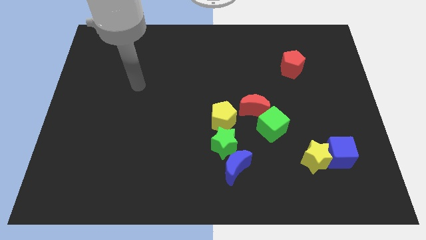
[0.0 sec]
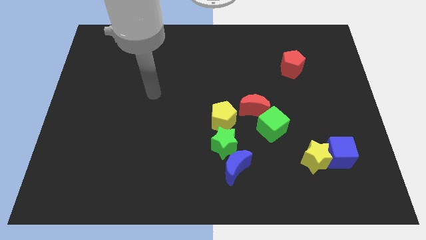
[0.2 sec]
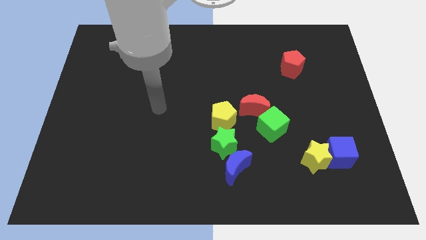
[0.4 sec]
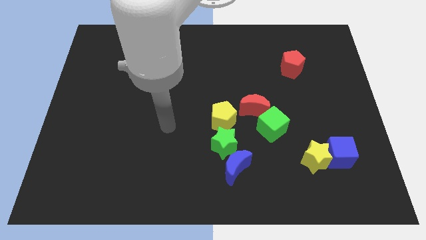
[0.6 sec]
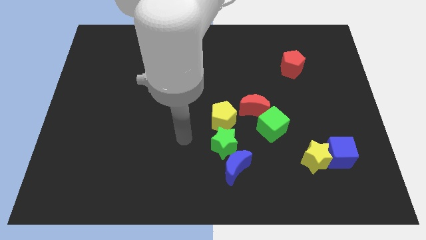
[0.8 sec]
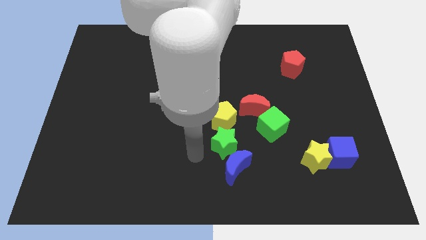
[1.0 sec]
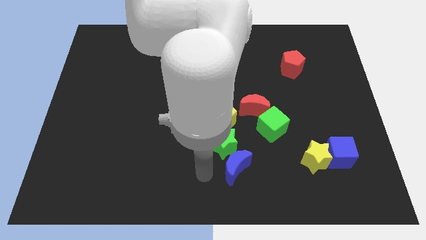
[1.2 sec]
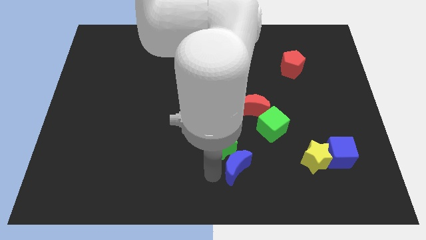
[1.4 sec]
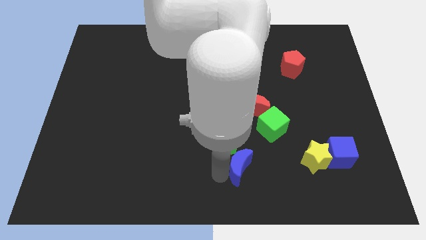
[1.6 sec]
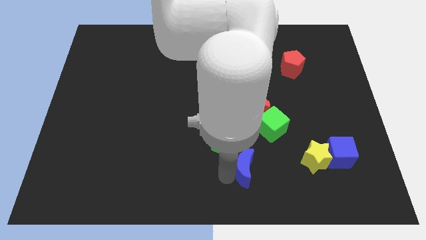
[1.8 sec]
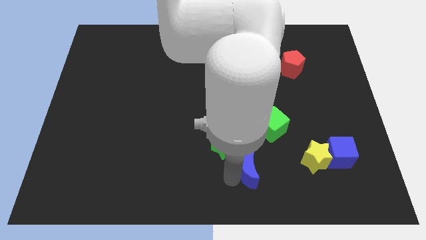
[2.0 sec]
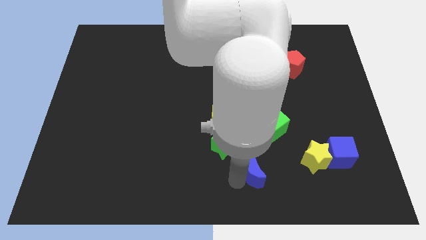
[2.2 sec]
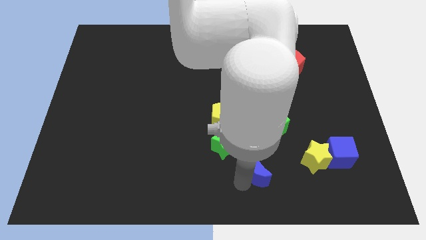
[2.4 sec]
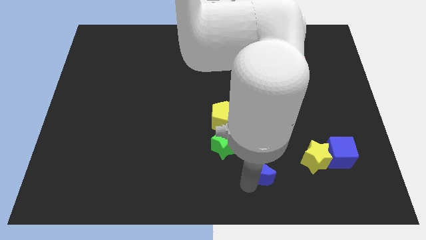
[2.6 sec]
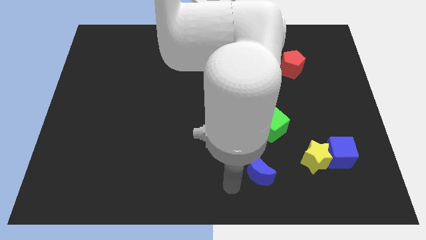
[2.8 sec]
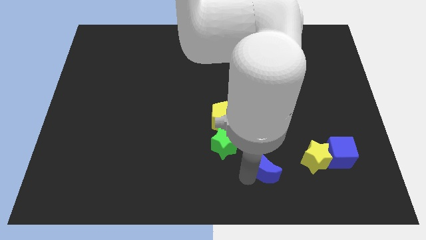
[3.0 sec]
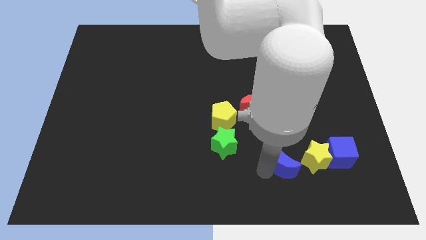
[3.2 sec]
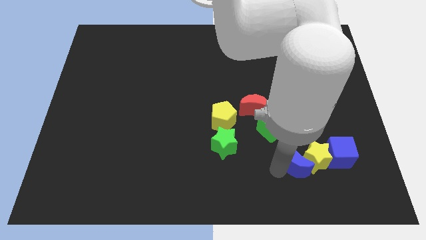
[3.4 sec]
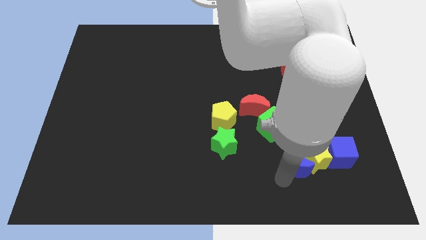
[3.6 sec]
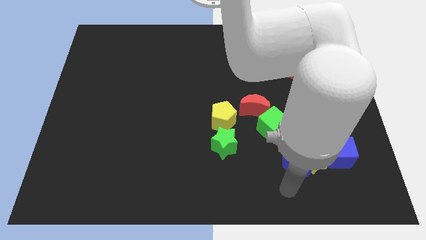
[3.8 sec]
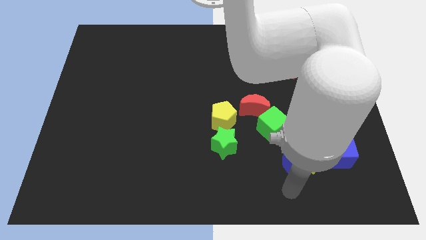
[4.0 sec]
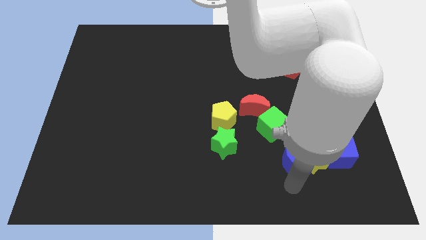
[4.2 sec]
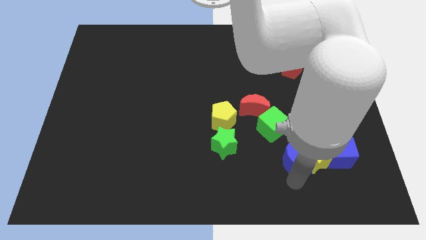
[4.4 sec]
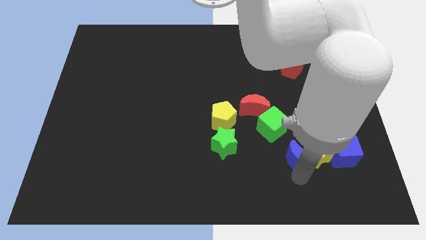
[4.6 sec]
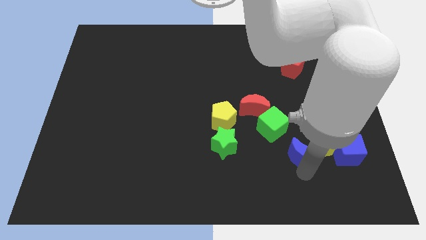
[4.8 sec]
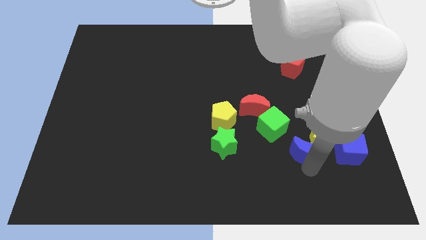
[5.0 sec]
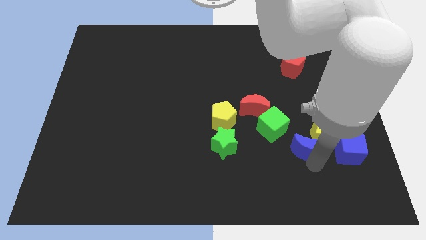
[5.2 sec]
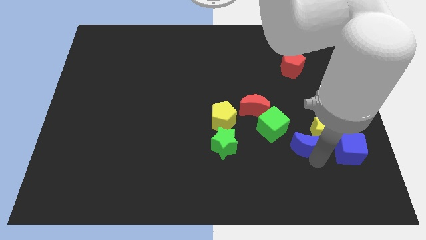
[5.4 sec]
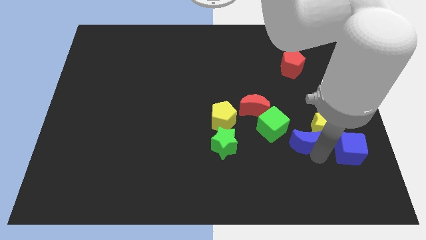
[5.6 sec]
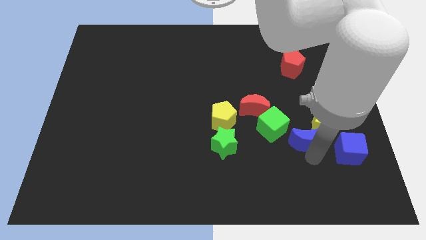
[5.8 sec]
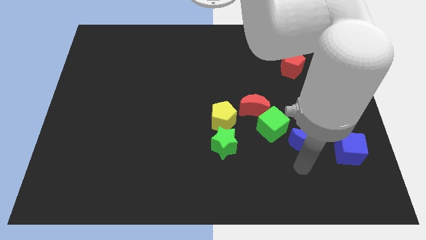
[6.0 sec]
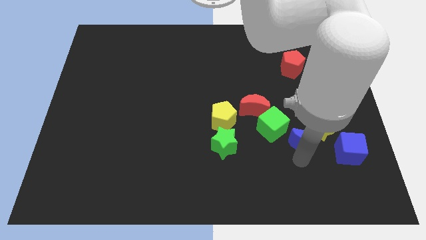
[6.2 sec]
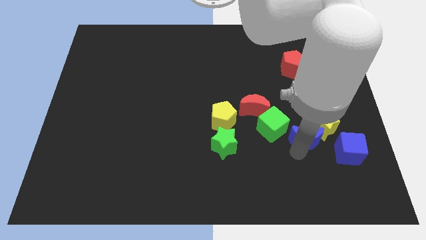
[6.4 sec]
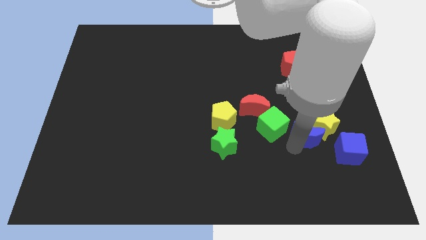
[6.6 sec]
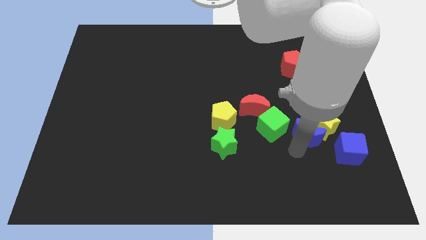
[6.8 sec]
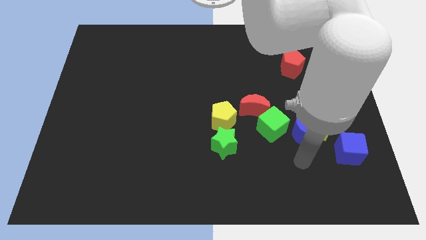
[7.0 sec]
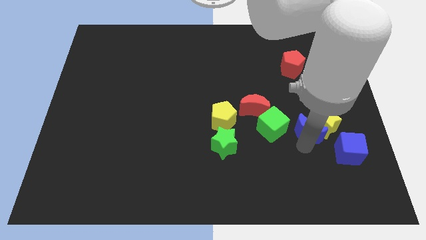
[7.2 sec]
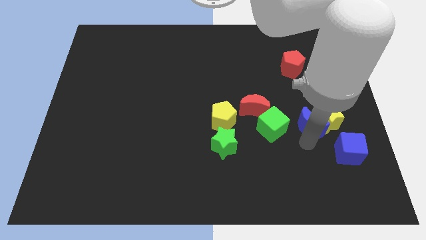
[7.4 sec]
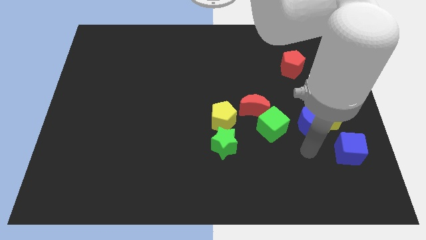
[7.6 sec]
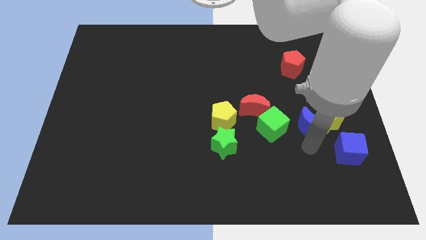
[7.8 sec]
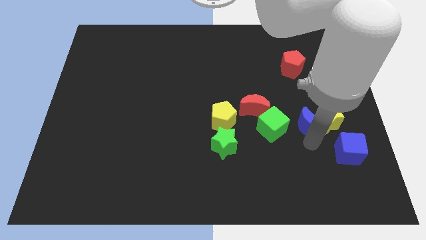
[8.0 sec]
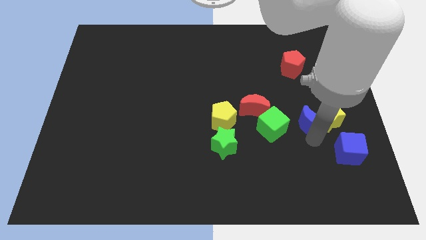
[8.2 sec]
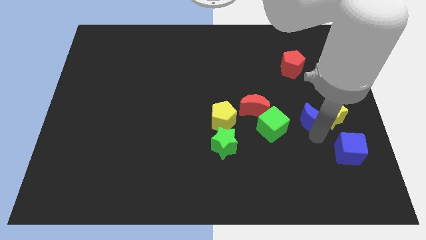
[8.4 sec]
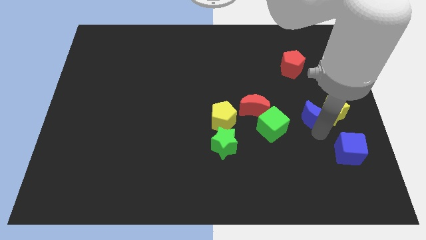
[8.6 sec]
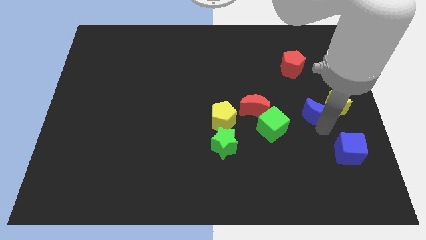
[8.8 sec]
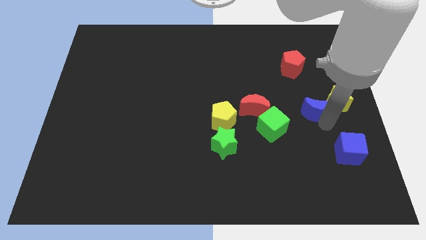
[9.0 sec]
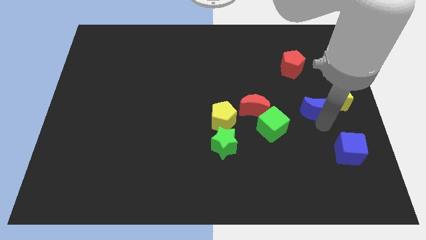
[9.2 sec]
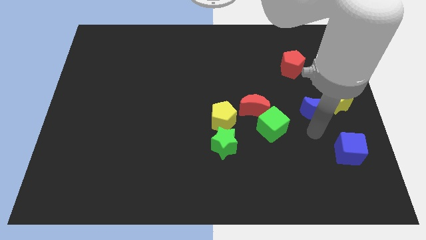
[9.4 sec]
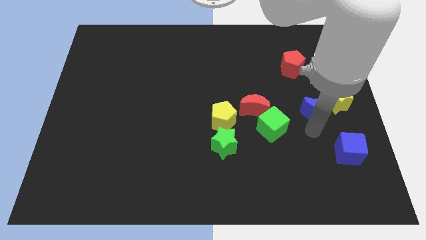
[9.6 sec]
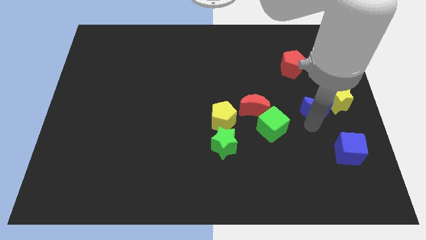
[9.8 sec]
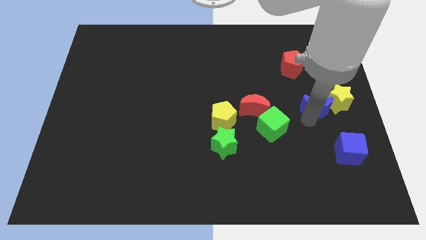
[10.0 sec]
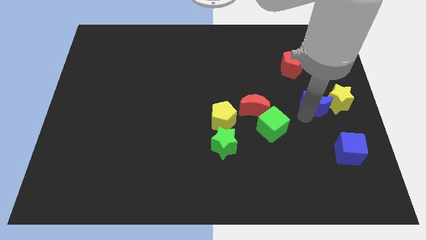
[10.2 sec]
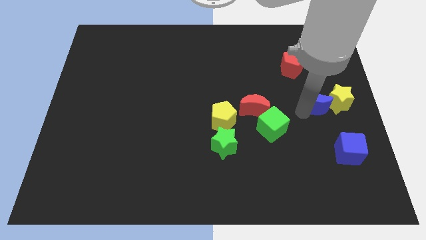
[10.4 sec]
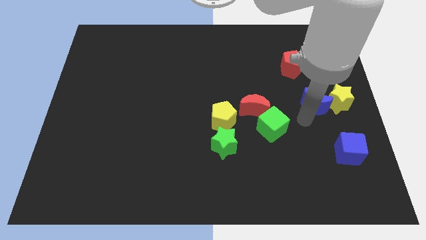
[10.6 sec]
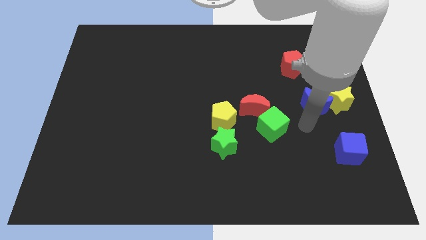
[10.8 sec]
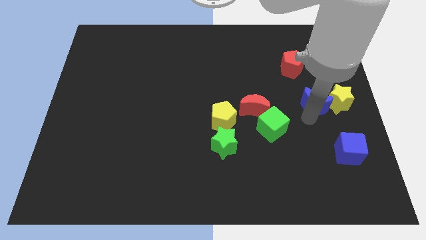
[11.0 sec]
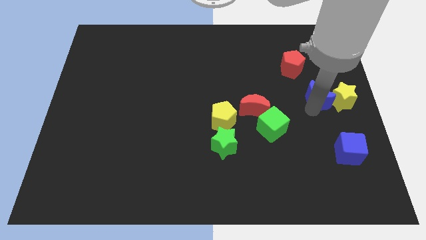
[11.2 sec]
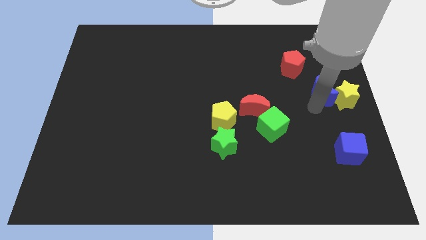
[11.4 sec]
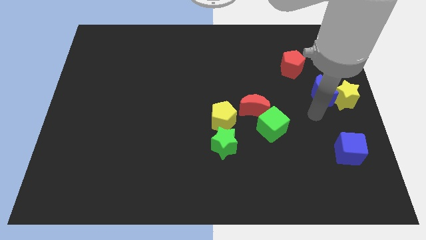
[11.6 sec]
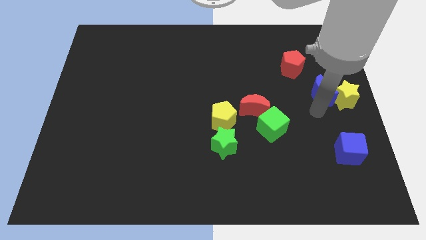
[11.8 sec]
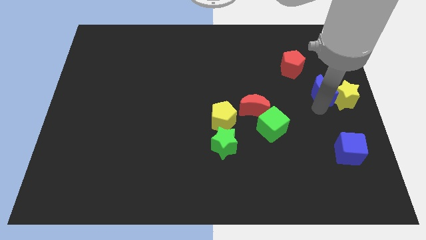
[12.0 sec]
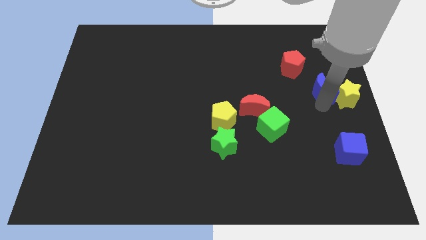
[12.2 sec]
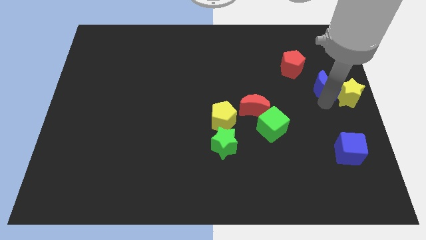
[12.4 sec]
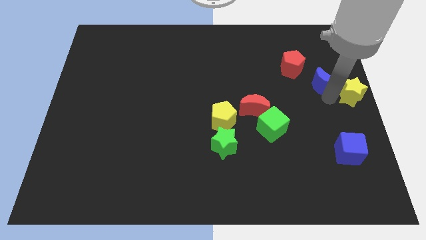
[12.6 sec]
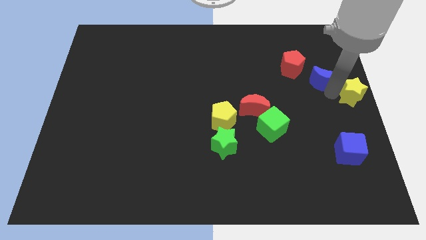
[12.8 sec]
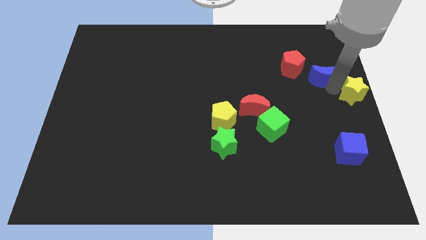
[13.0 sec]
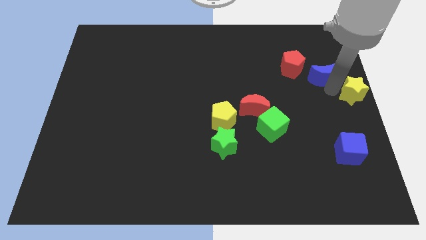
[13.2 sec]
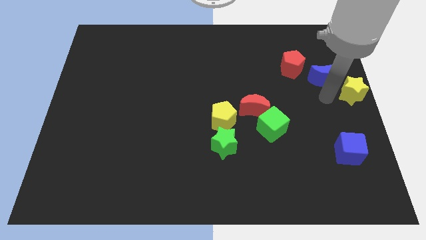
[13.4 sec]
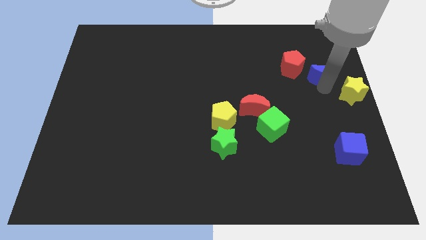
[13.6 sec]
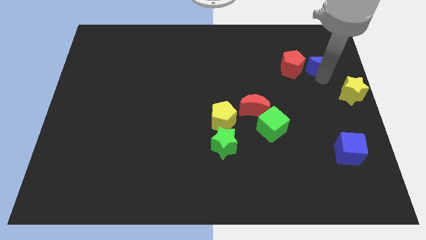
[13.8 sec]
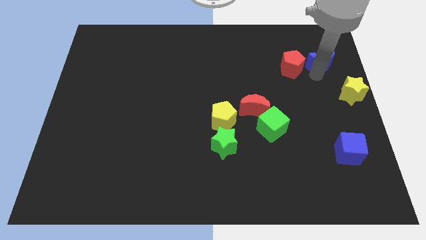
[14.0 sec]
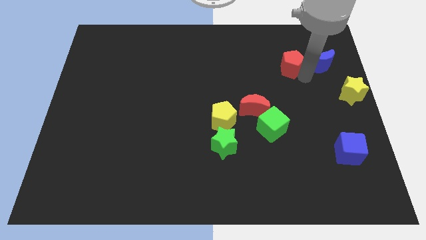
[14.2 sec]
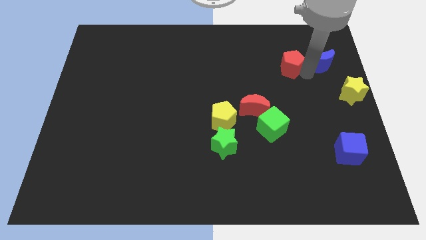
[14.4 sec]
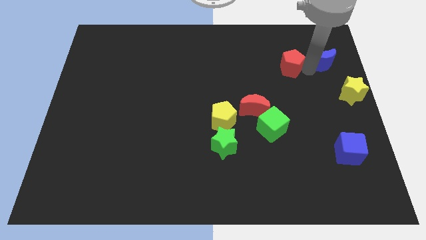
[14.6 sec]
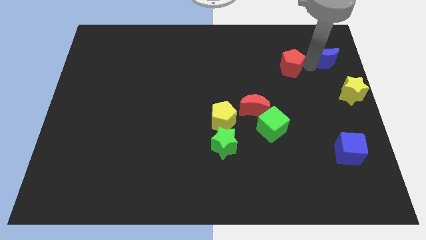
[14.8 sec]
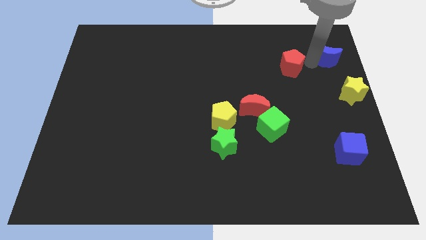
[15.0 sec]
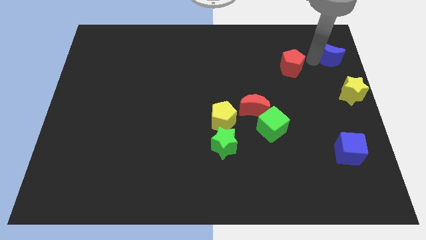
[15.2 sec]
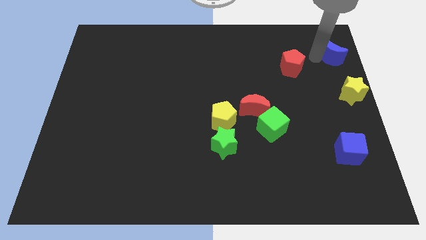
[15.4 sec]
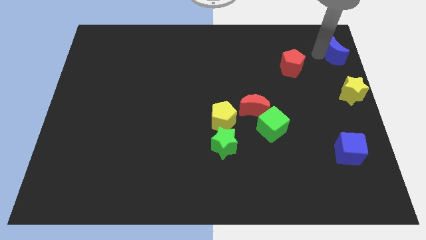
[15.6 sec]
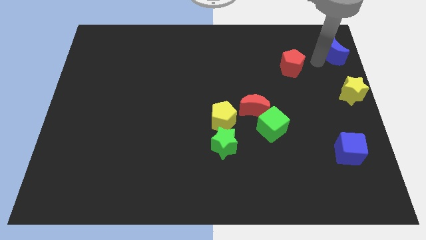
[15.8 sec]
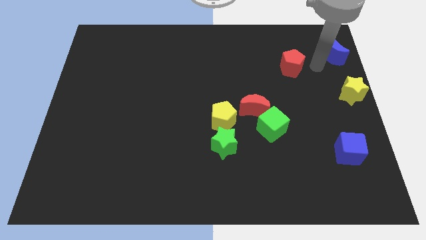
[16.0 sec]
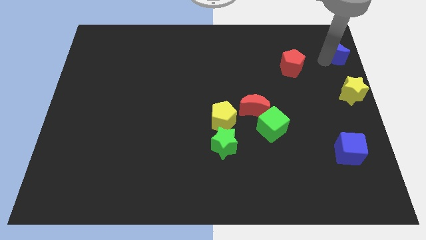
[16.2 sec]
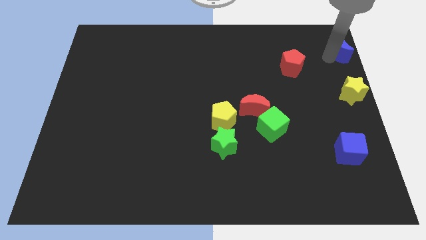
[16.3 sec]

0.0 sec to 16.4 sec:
slide the blue moon to the upper right corner
